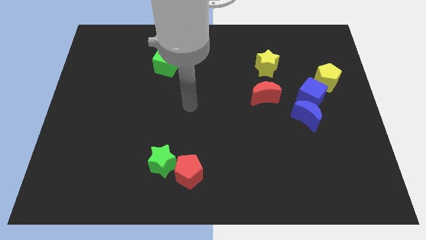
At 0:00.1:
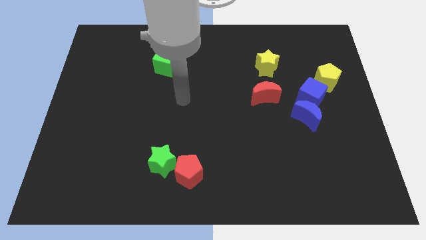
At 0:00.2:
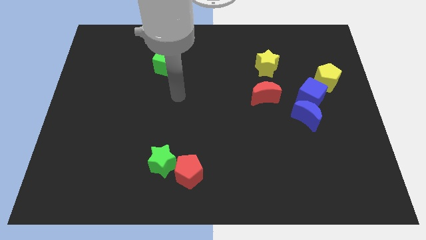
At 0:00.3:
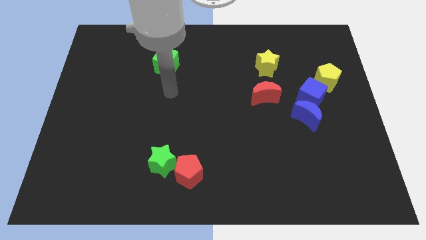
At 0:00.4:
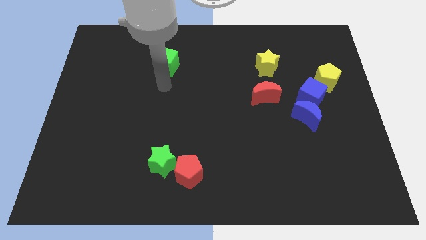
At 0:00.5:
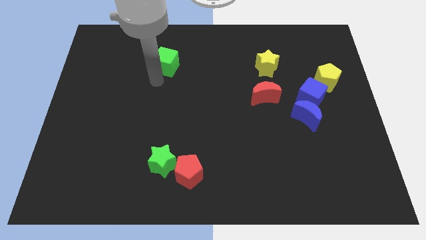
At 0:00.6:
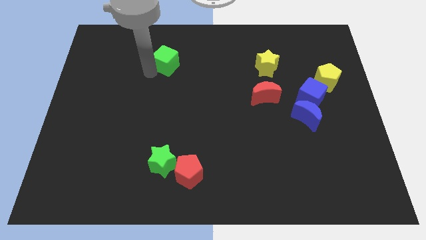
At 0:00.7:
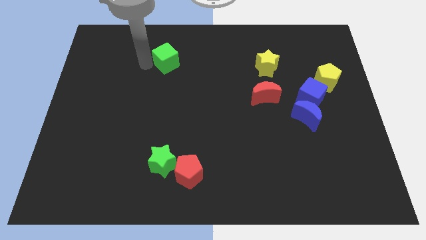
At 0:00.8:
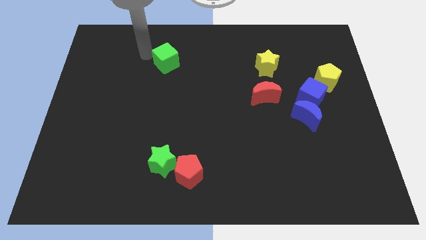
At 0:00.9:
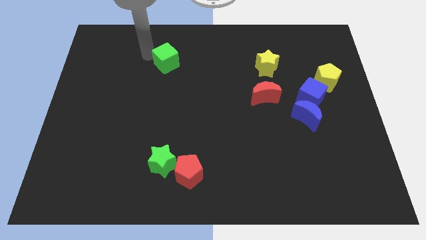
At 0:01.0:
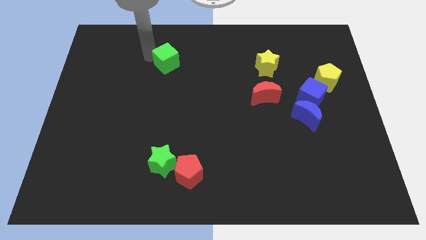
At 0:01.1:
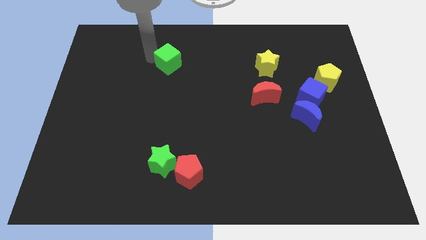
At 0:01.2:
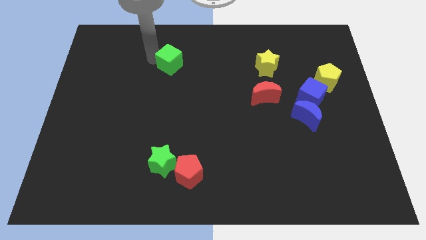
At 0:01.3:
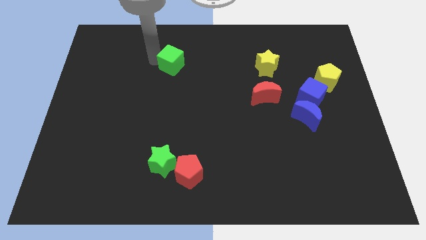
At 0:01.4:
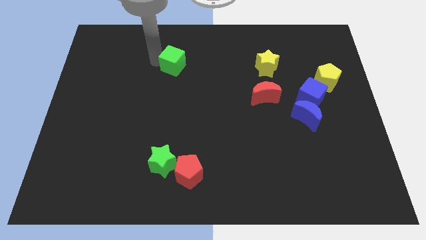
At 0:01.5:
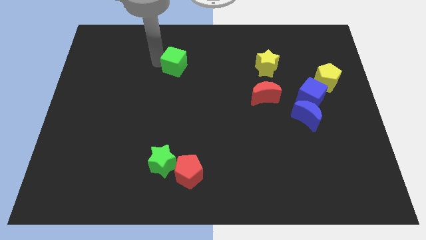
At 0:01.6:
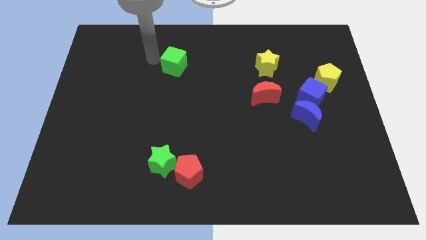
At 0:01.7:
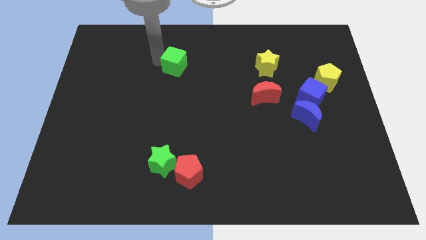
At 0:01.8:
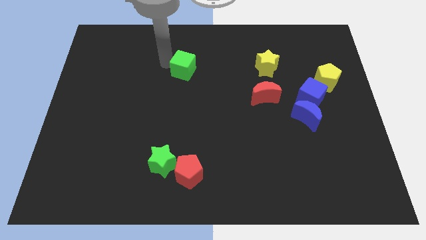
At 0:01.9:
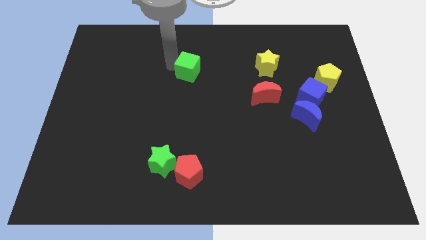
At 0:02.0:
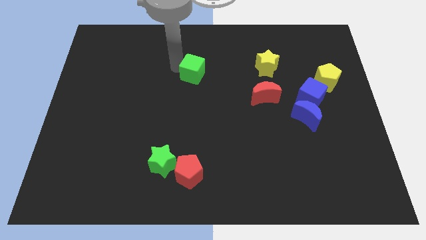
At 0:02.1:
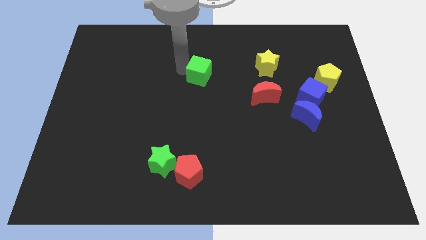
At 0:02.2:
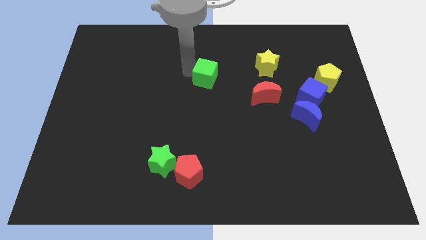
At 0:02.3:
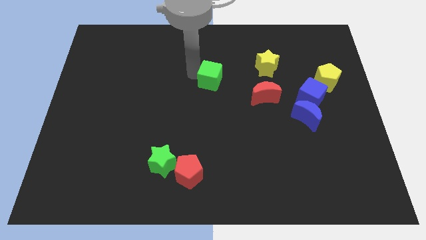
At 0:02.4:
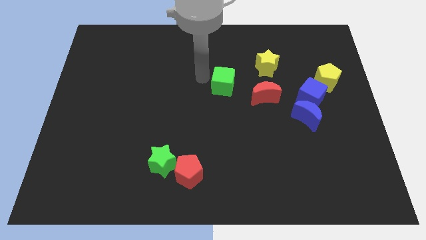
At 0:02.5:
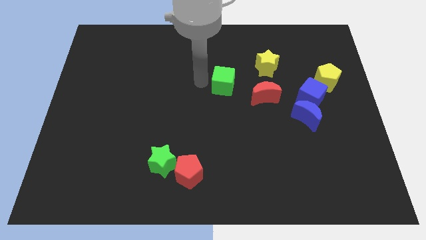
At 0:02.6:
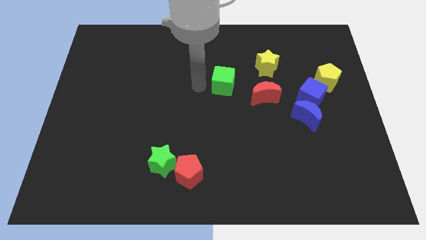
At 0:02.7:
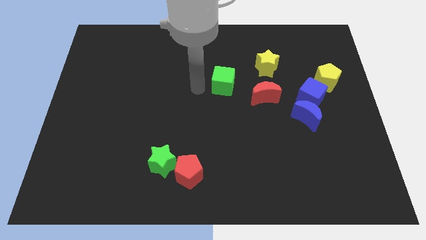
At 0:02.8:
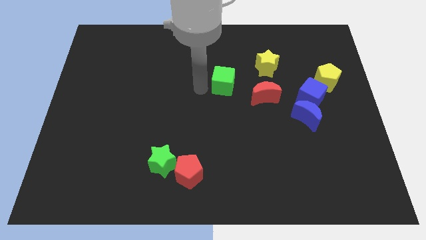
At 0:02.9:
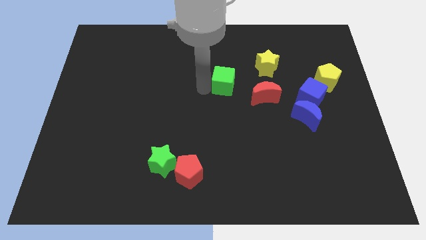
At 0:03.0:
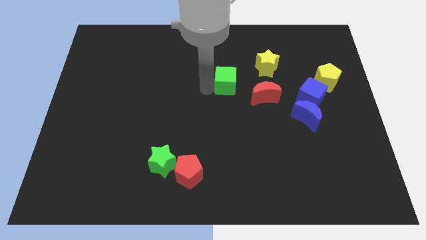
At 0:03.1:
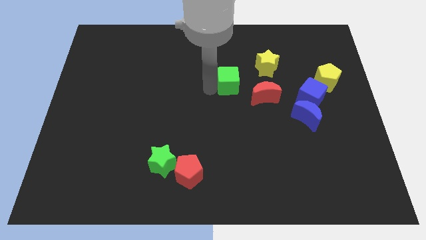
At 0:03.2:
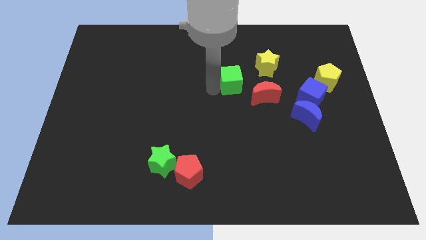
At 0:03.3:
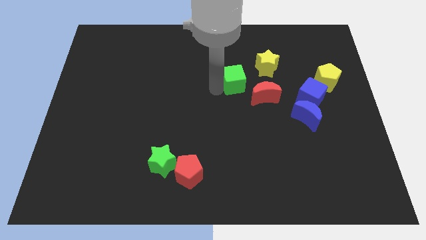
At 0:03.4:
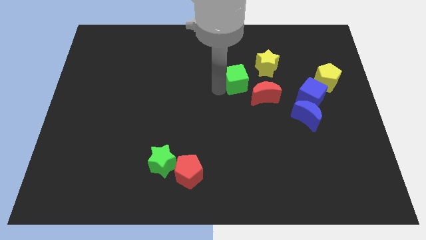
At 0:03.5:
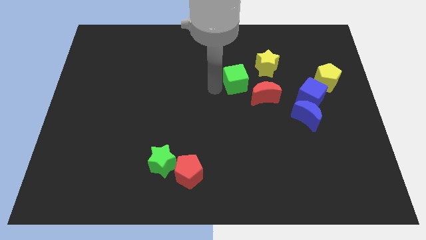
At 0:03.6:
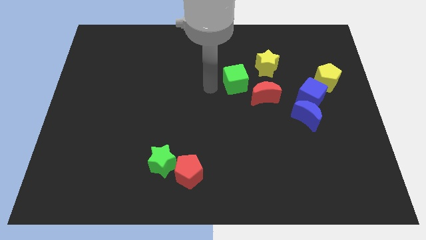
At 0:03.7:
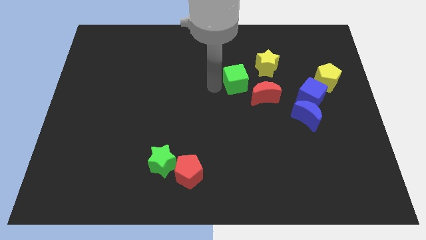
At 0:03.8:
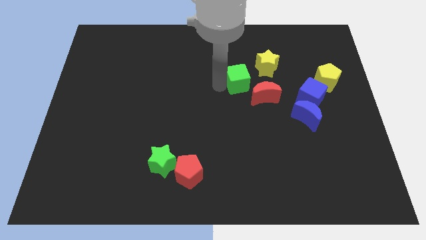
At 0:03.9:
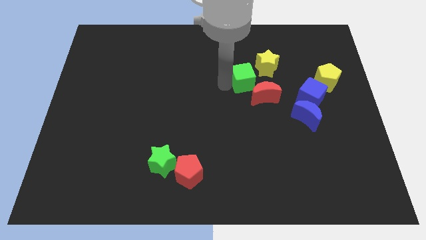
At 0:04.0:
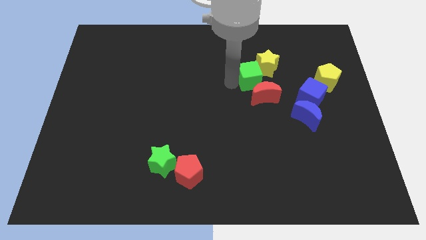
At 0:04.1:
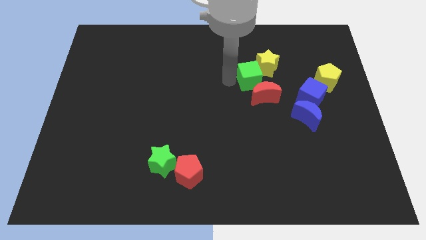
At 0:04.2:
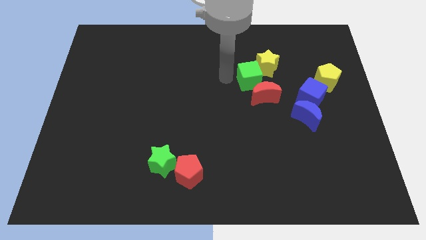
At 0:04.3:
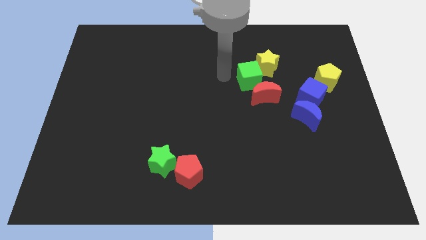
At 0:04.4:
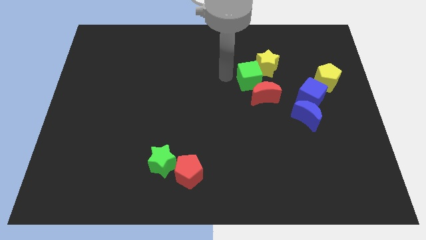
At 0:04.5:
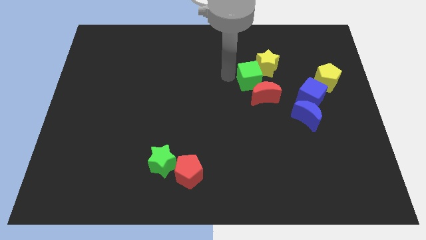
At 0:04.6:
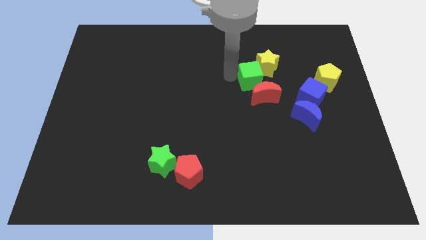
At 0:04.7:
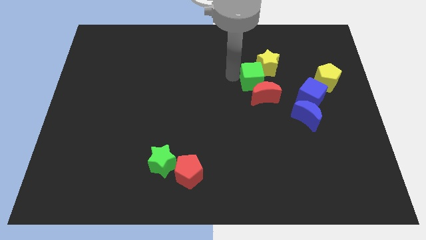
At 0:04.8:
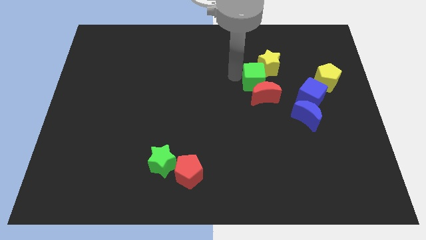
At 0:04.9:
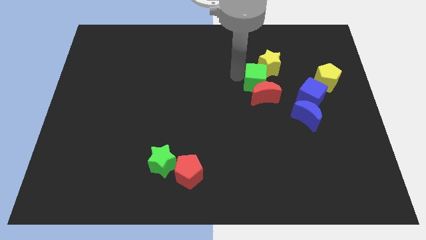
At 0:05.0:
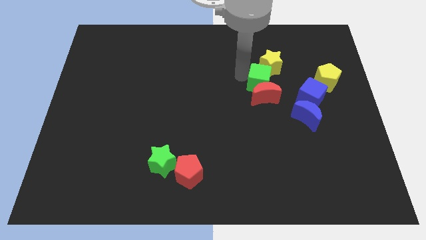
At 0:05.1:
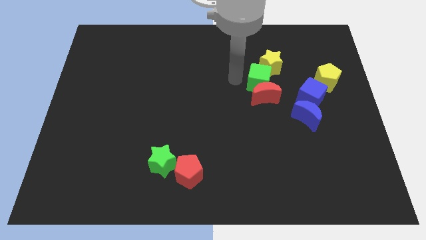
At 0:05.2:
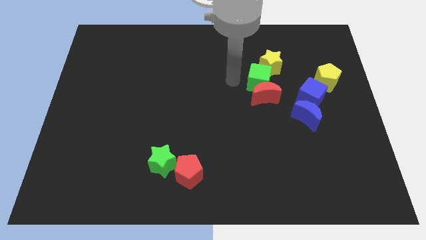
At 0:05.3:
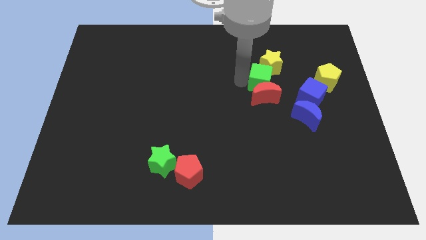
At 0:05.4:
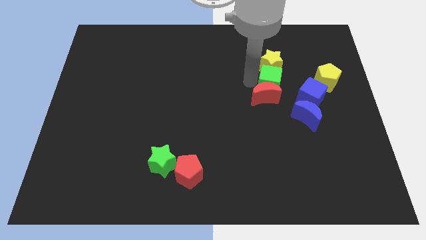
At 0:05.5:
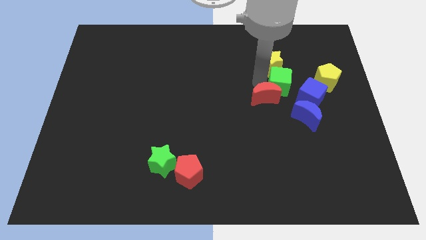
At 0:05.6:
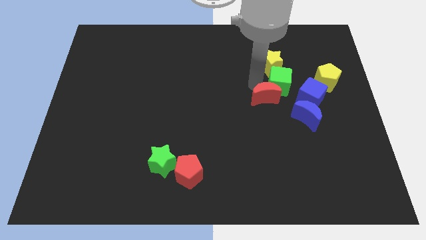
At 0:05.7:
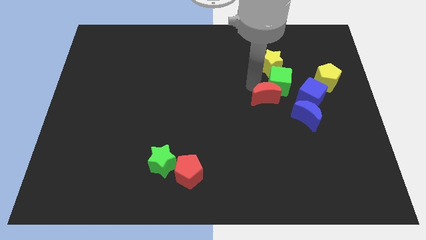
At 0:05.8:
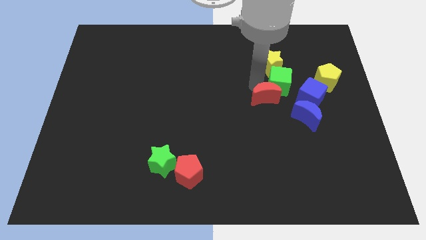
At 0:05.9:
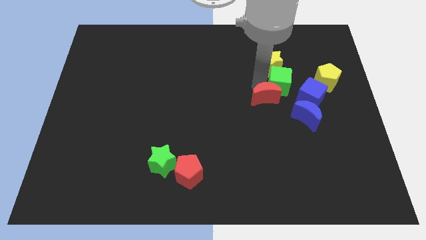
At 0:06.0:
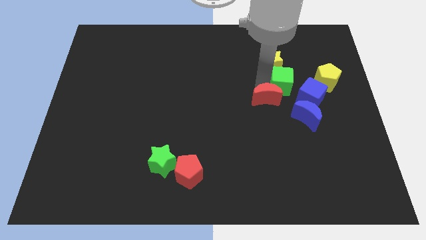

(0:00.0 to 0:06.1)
slide the green cube above the blue moon

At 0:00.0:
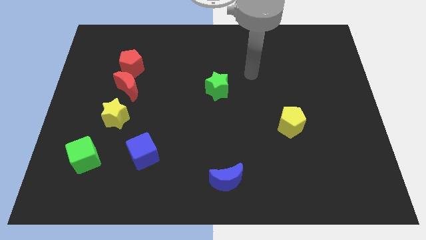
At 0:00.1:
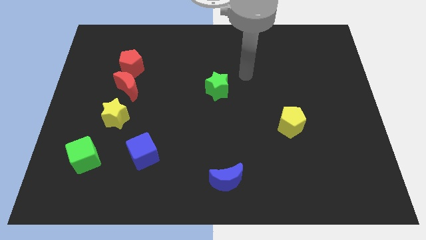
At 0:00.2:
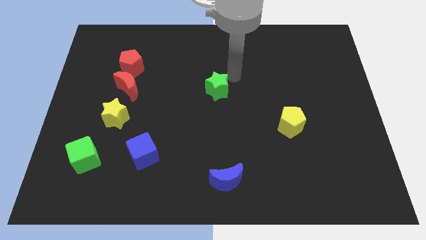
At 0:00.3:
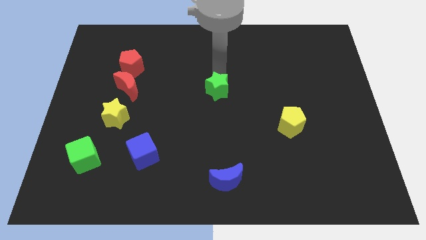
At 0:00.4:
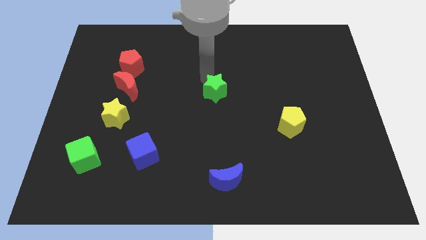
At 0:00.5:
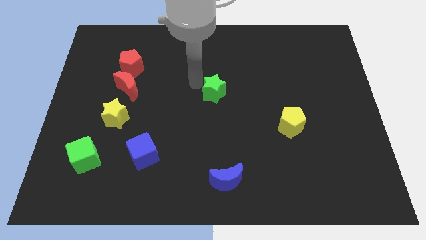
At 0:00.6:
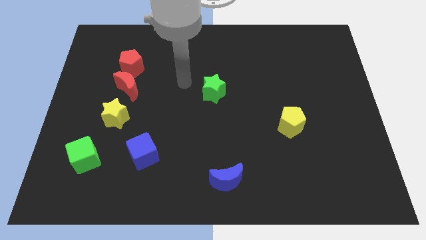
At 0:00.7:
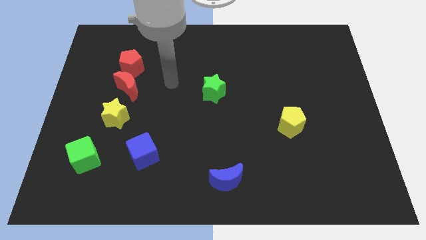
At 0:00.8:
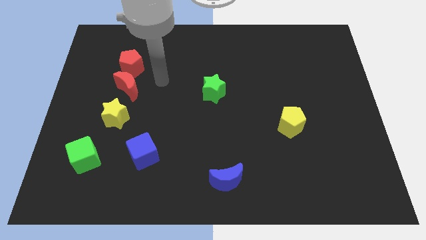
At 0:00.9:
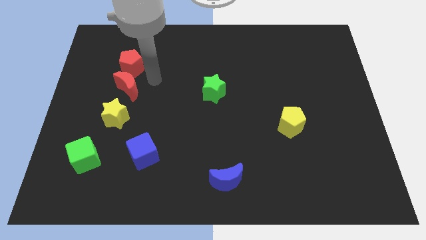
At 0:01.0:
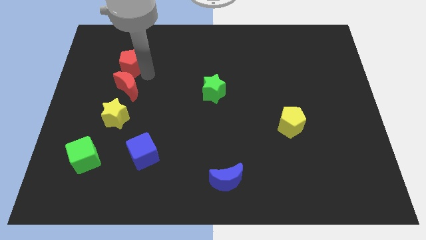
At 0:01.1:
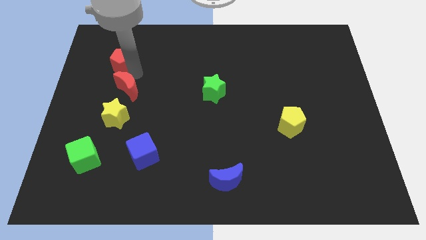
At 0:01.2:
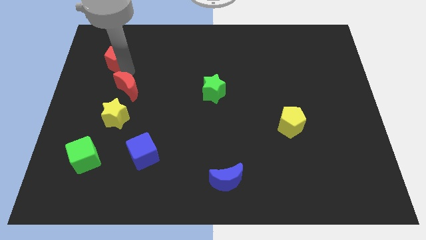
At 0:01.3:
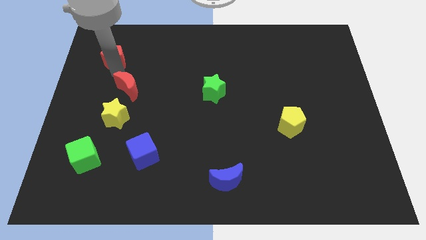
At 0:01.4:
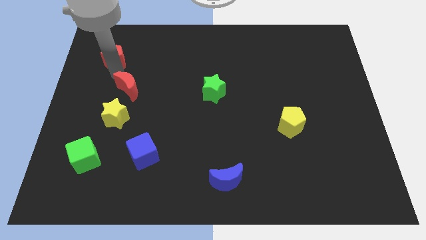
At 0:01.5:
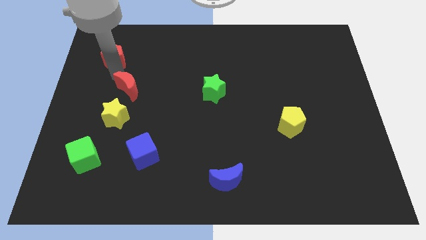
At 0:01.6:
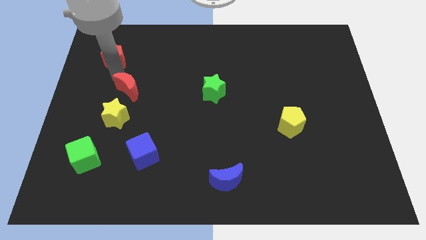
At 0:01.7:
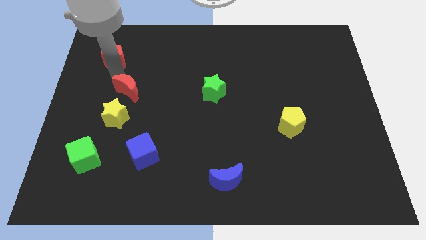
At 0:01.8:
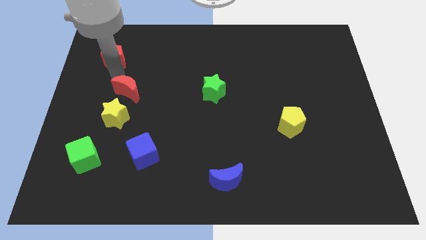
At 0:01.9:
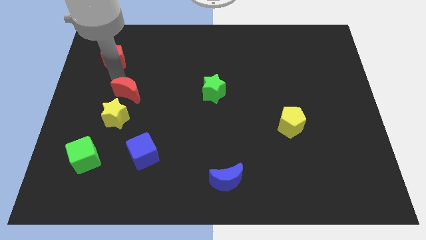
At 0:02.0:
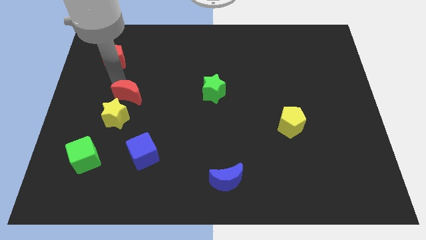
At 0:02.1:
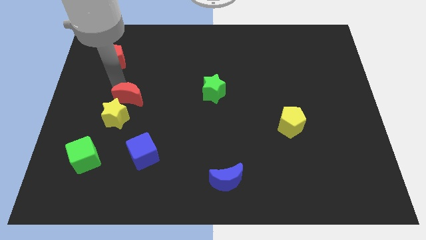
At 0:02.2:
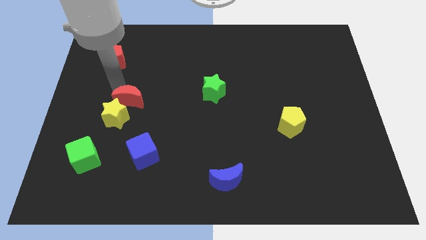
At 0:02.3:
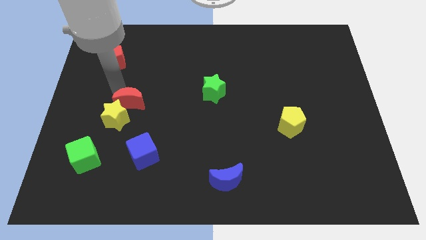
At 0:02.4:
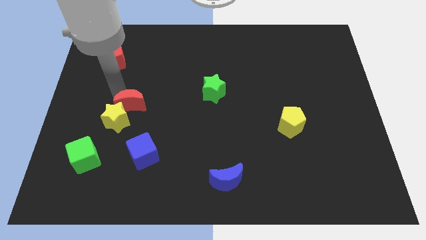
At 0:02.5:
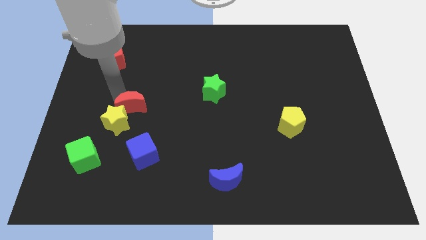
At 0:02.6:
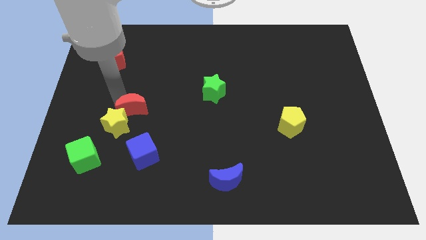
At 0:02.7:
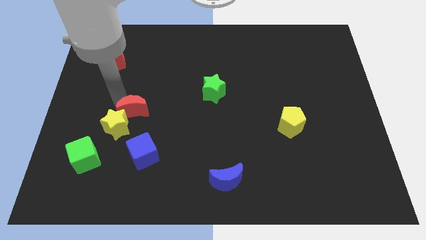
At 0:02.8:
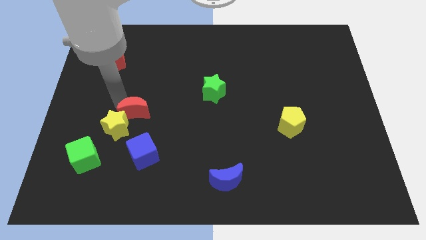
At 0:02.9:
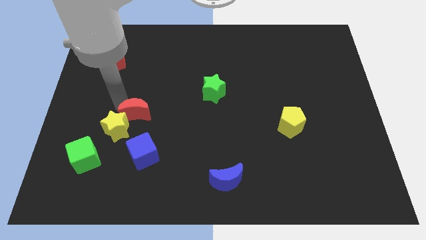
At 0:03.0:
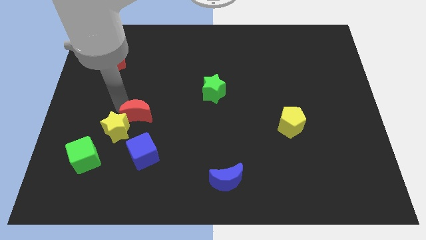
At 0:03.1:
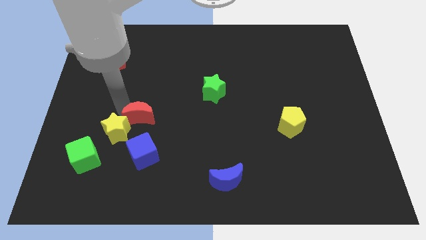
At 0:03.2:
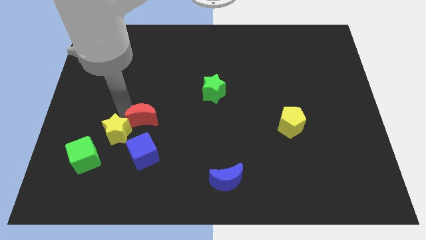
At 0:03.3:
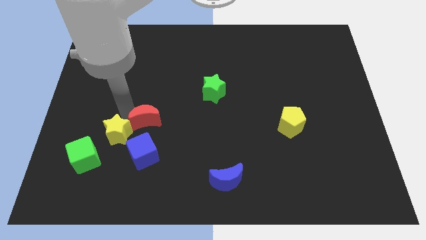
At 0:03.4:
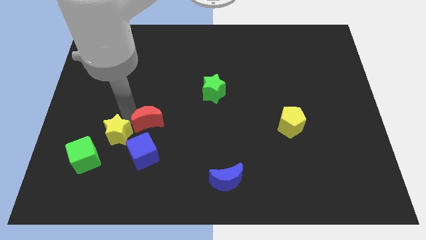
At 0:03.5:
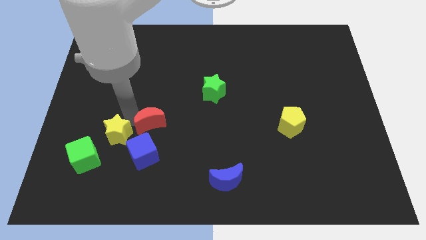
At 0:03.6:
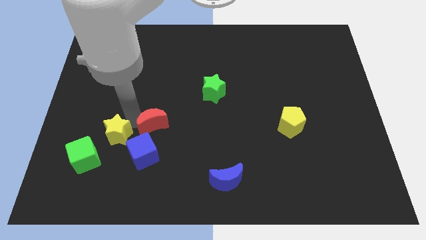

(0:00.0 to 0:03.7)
move the red moon diagonally up and to the right of the blue cube
